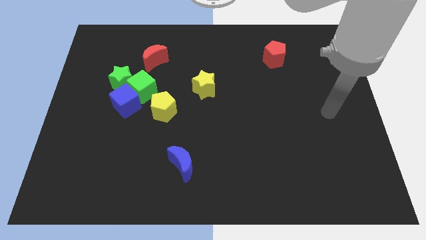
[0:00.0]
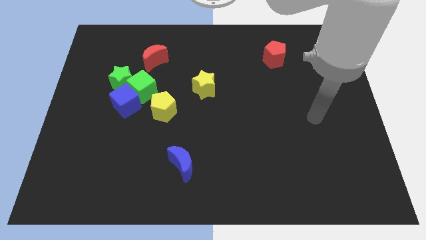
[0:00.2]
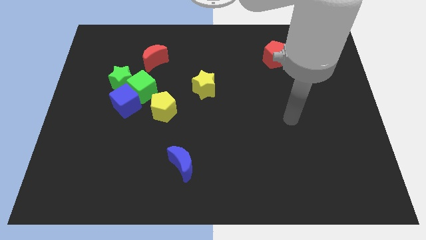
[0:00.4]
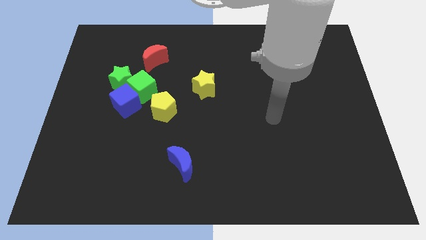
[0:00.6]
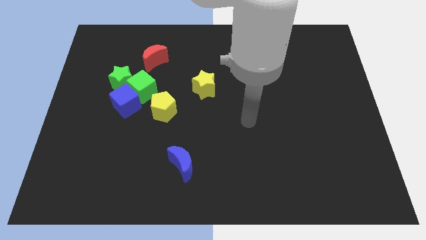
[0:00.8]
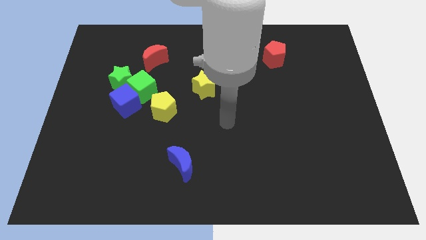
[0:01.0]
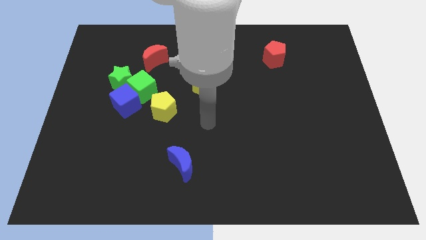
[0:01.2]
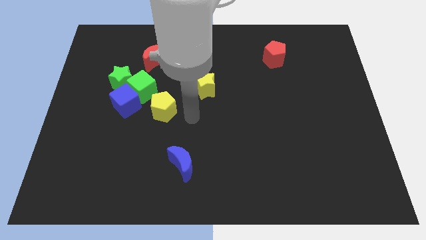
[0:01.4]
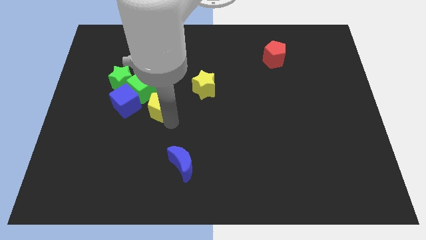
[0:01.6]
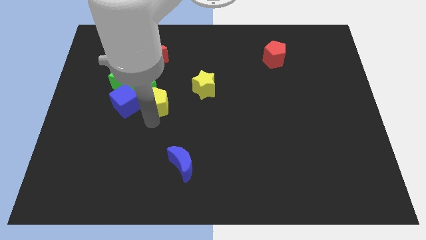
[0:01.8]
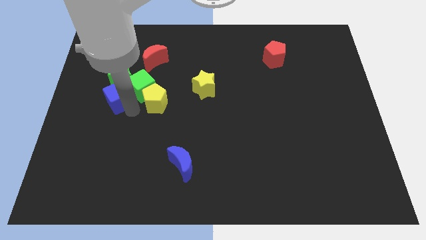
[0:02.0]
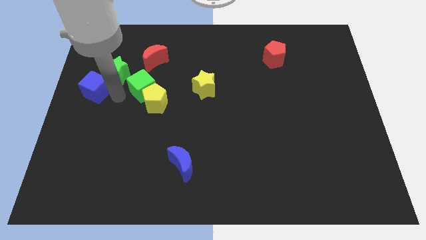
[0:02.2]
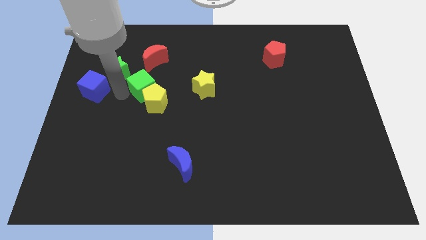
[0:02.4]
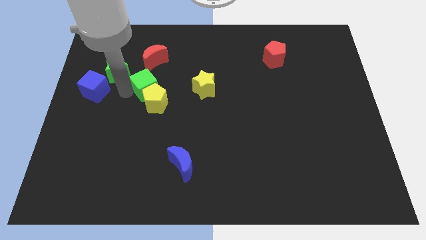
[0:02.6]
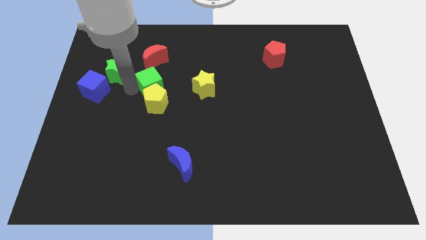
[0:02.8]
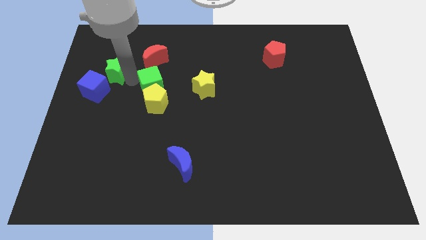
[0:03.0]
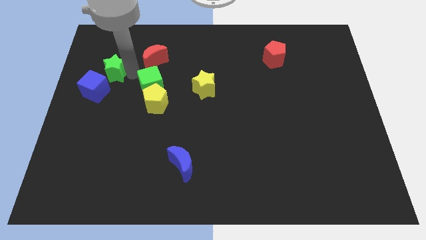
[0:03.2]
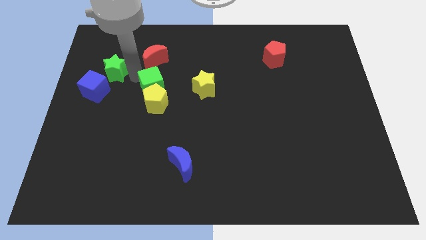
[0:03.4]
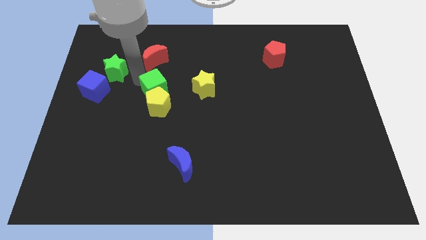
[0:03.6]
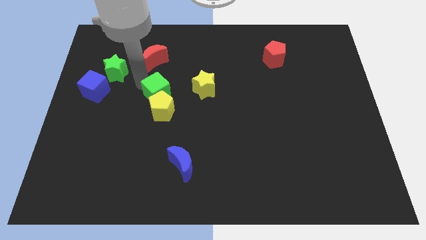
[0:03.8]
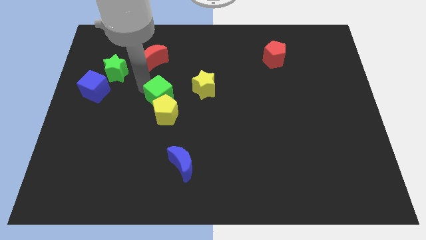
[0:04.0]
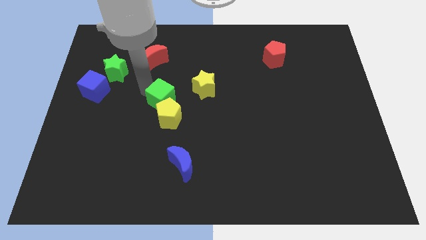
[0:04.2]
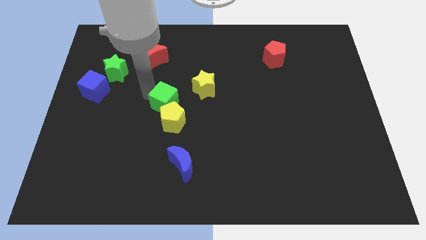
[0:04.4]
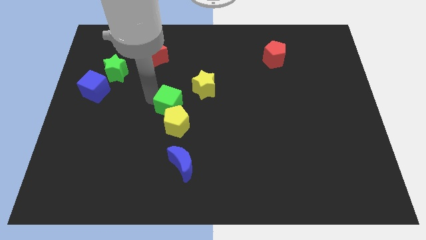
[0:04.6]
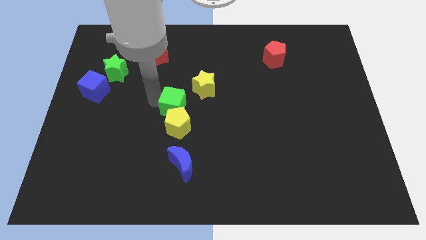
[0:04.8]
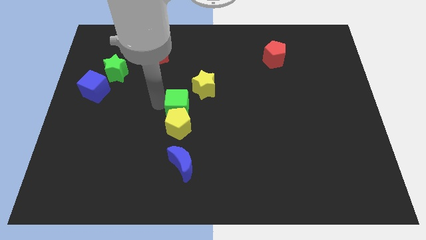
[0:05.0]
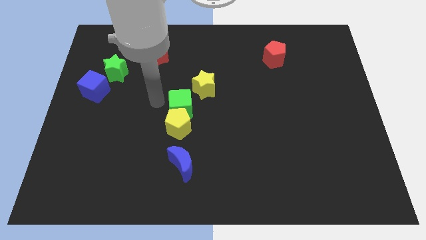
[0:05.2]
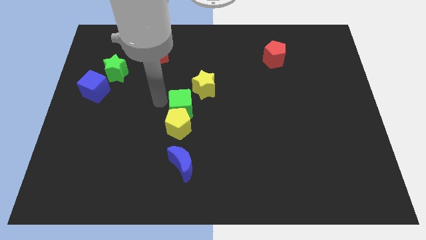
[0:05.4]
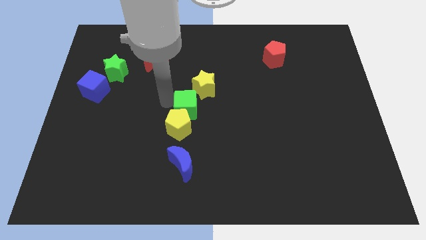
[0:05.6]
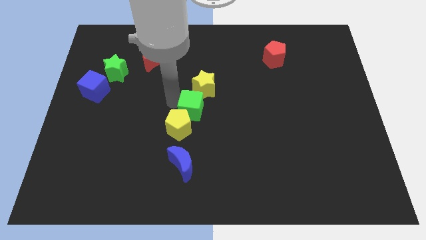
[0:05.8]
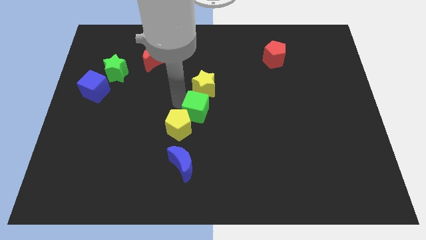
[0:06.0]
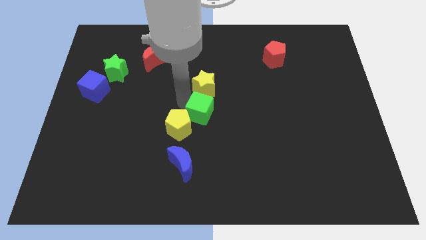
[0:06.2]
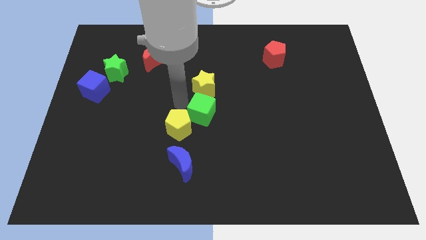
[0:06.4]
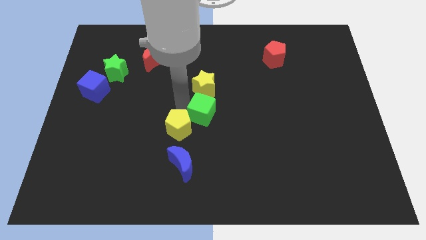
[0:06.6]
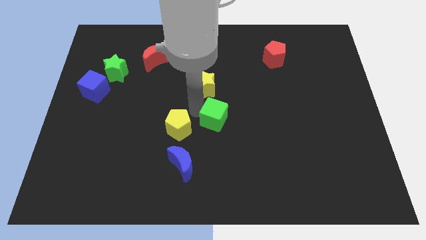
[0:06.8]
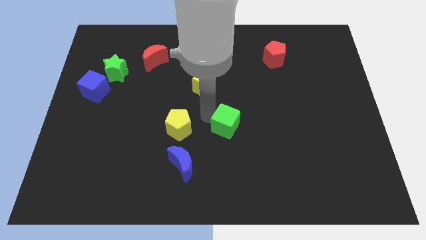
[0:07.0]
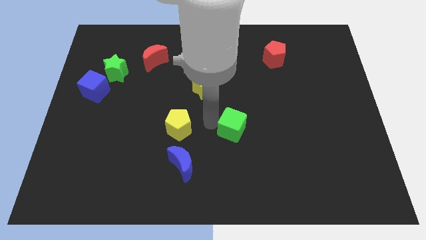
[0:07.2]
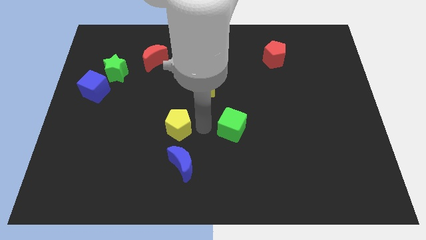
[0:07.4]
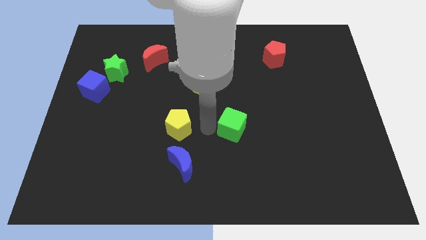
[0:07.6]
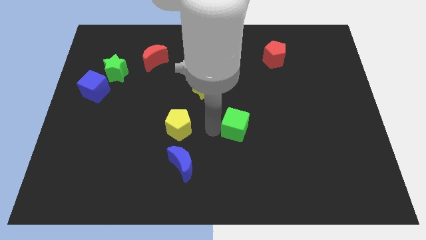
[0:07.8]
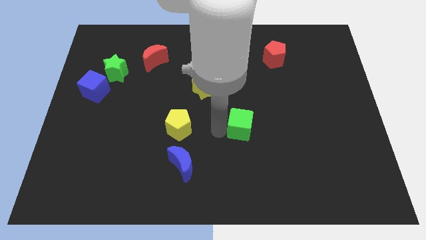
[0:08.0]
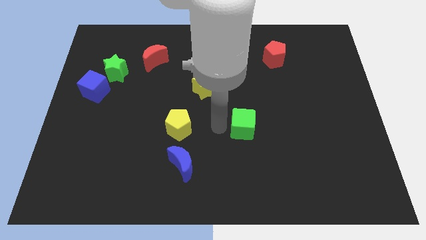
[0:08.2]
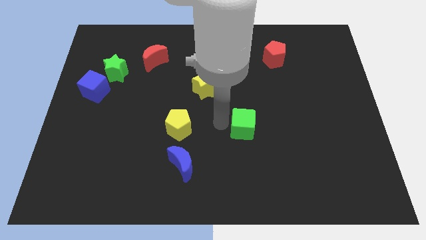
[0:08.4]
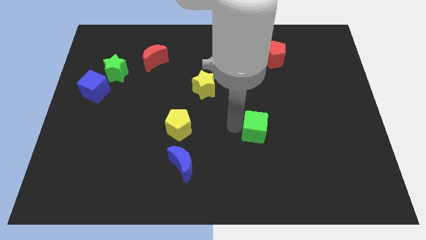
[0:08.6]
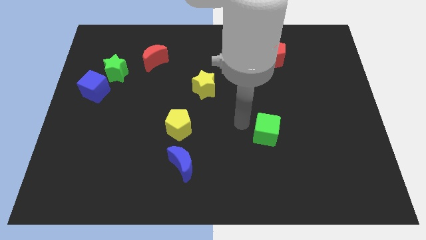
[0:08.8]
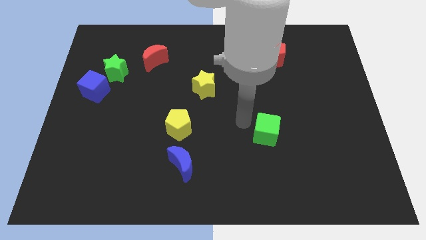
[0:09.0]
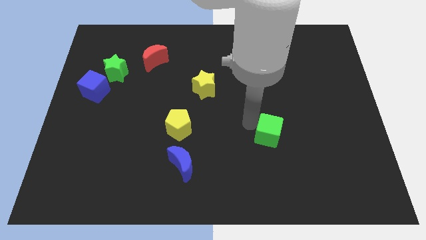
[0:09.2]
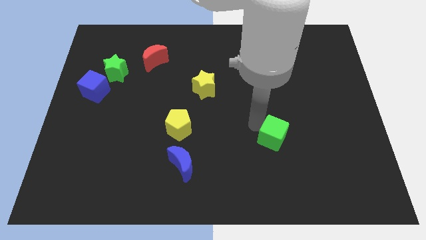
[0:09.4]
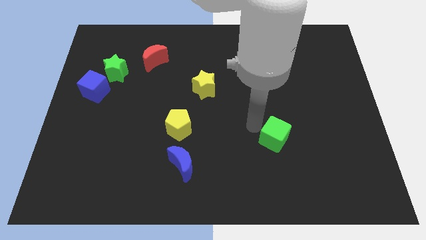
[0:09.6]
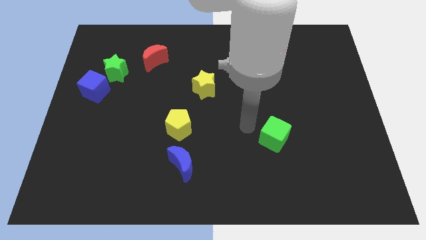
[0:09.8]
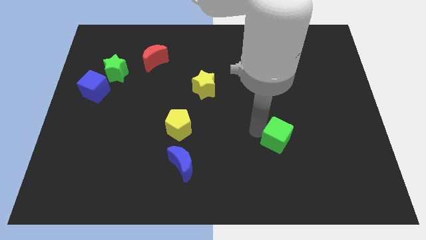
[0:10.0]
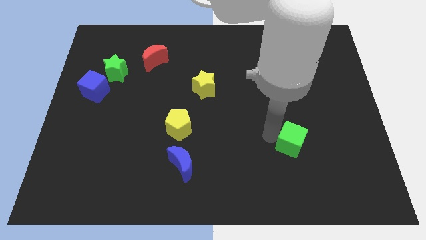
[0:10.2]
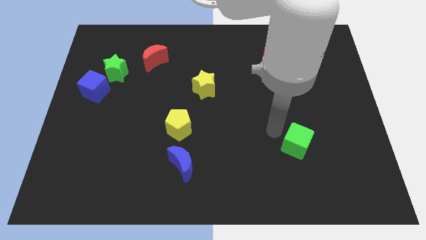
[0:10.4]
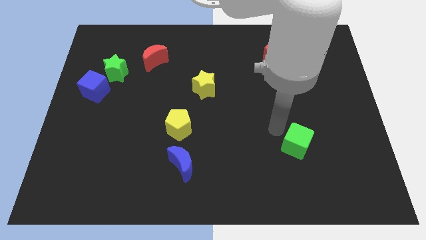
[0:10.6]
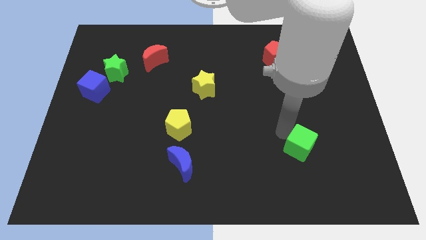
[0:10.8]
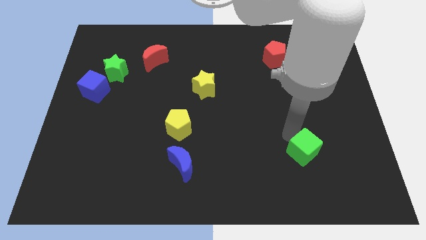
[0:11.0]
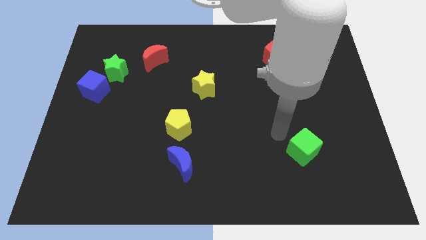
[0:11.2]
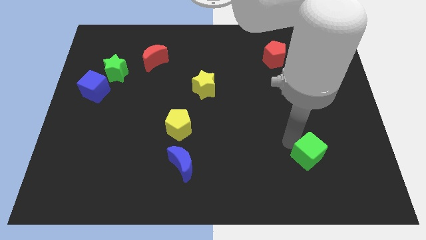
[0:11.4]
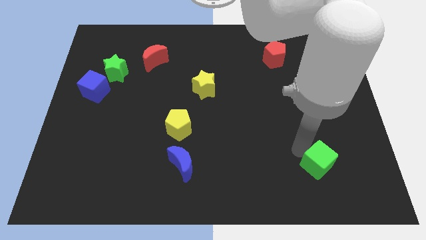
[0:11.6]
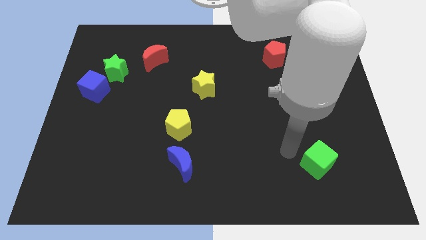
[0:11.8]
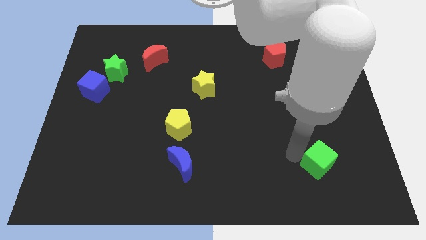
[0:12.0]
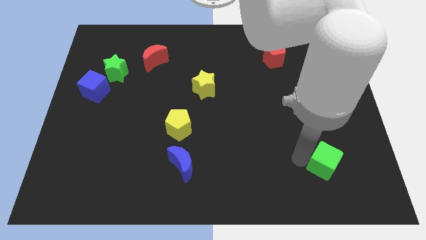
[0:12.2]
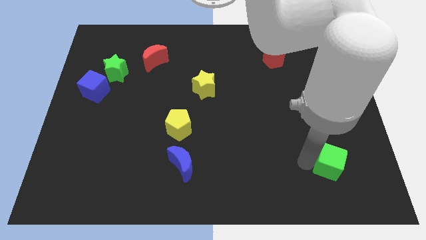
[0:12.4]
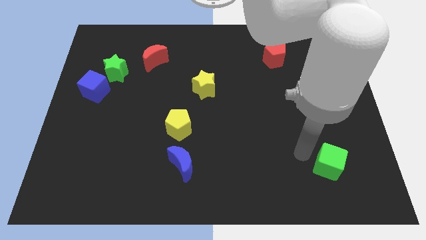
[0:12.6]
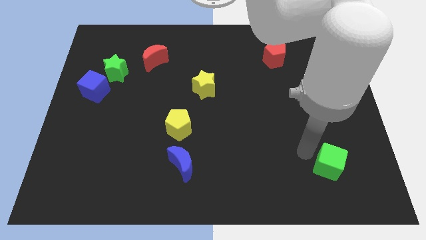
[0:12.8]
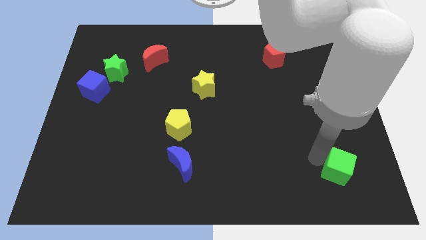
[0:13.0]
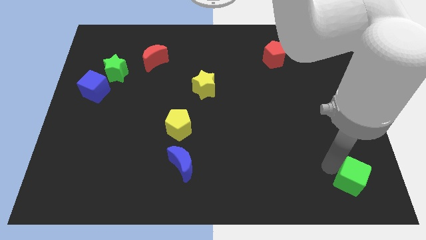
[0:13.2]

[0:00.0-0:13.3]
put the green cube to the lower right corner
